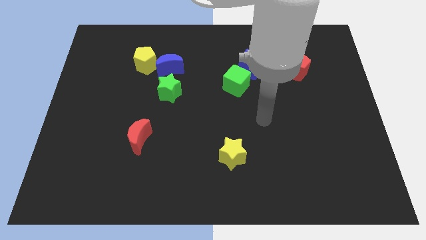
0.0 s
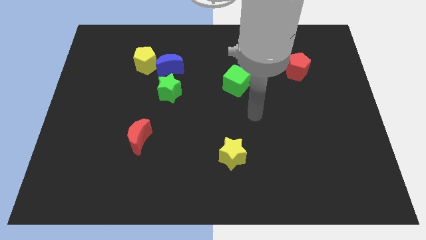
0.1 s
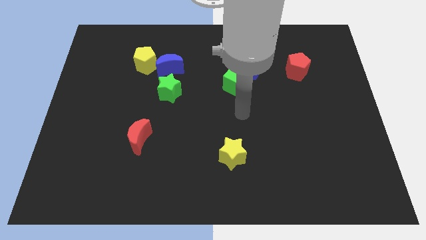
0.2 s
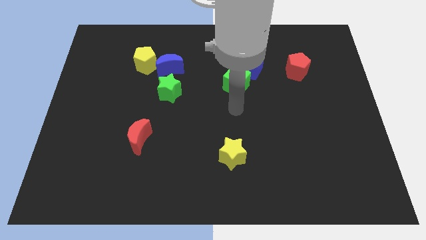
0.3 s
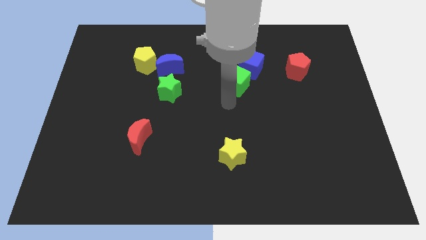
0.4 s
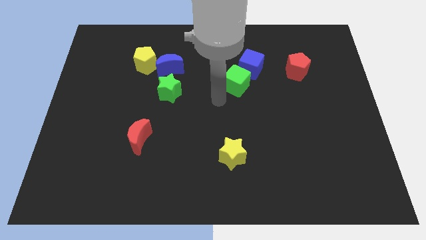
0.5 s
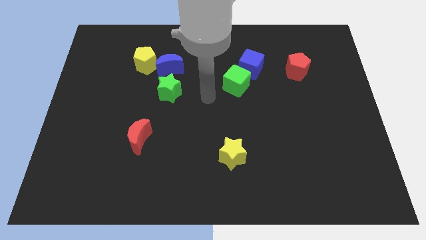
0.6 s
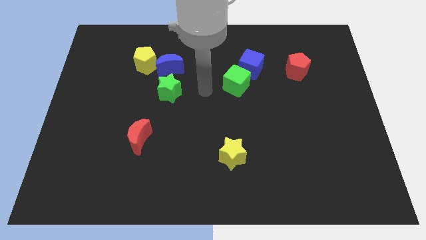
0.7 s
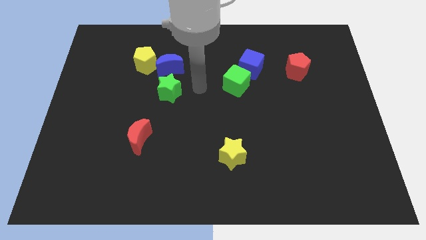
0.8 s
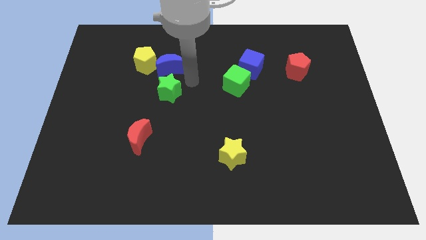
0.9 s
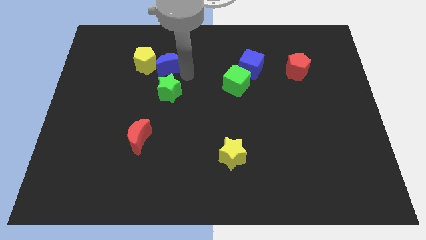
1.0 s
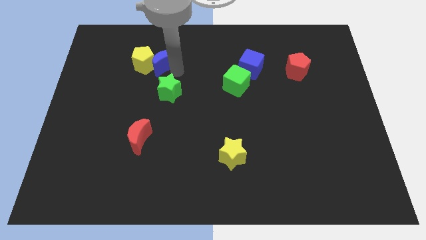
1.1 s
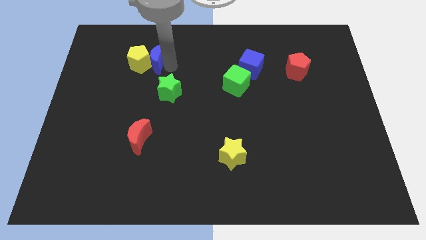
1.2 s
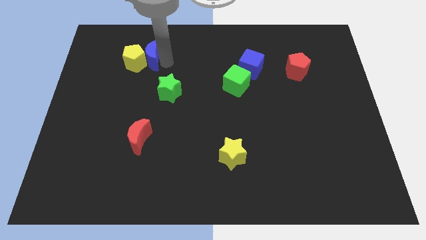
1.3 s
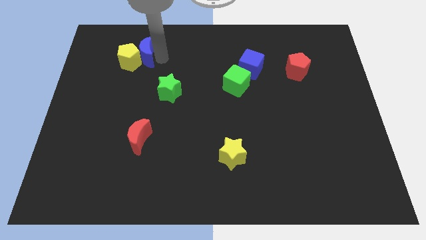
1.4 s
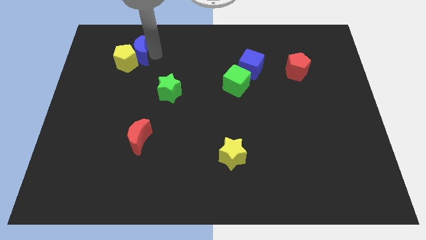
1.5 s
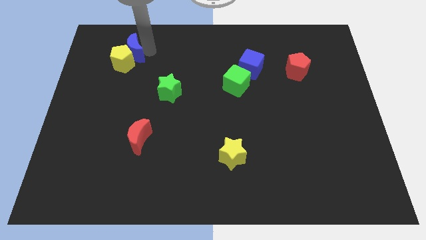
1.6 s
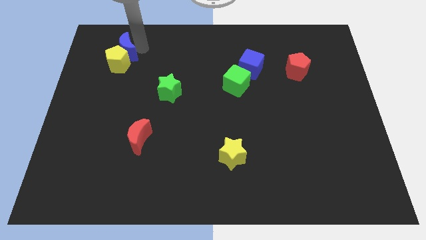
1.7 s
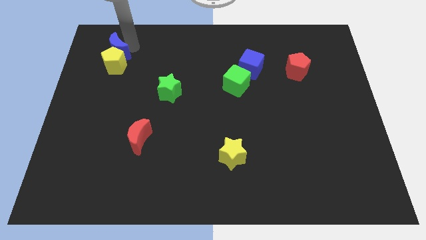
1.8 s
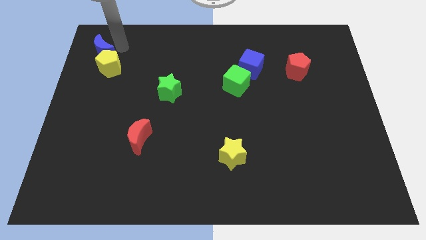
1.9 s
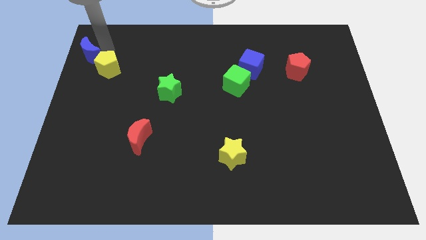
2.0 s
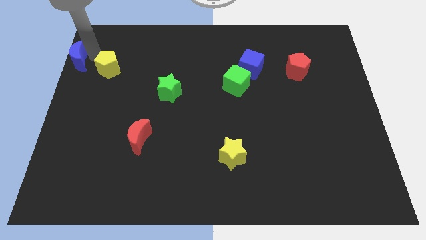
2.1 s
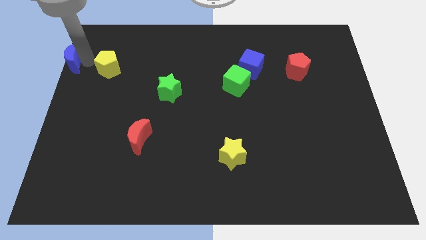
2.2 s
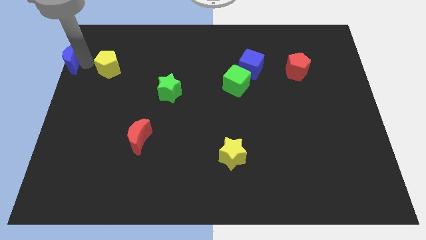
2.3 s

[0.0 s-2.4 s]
separate the yellow pentagon from the blue moon

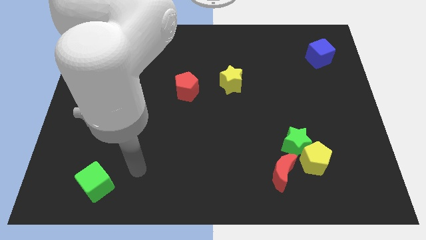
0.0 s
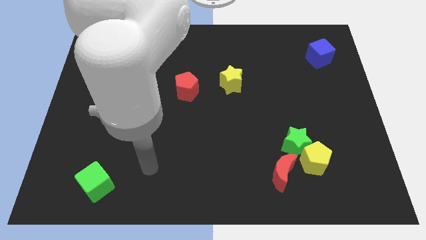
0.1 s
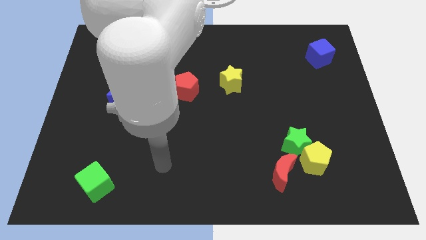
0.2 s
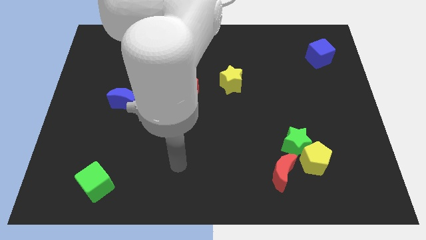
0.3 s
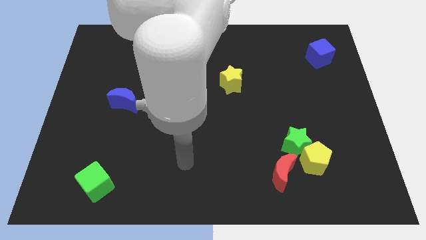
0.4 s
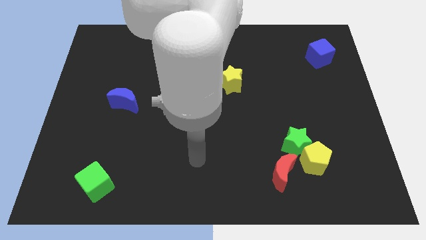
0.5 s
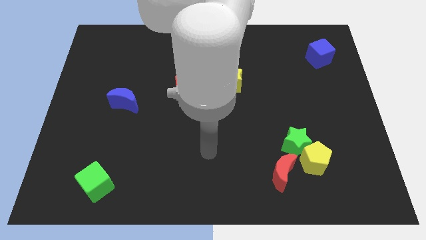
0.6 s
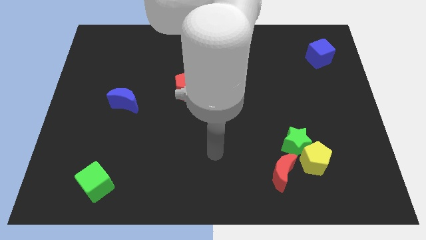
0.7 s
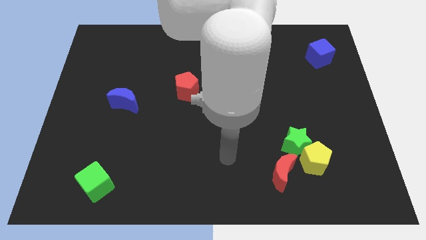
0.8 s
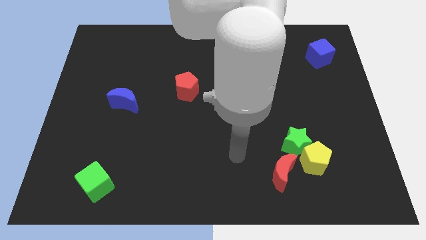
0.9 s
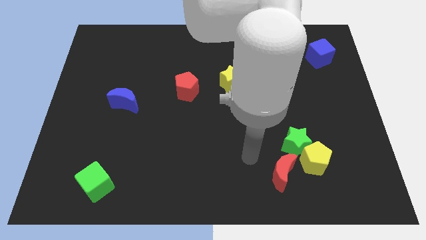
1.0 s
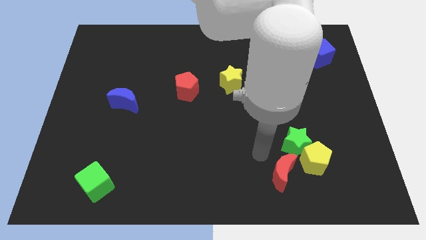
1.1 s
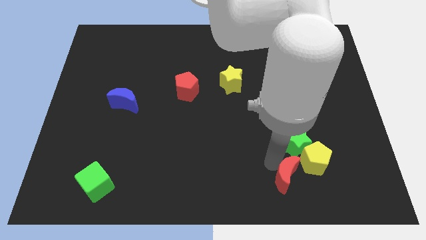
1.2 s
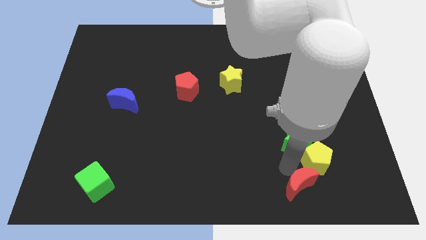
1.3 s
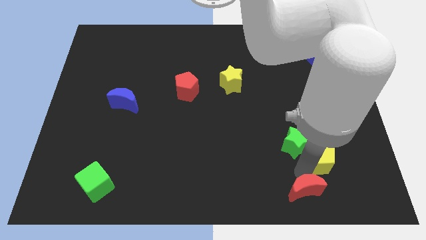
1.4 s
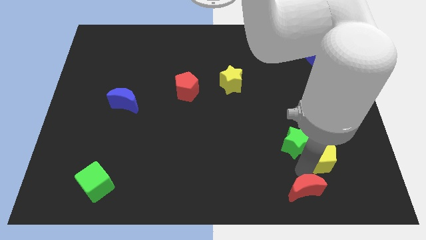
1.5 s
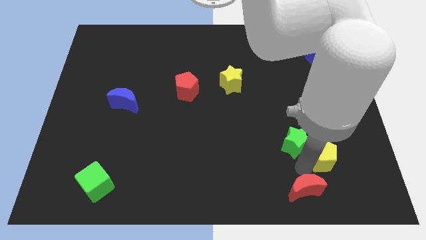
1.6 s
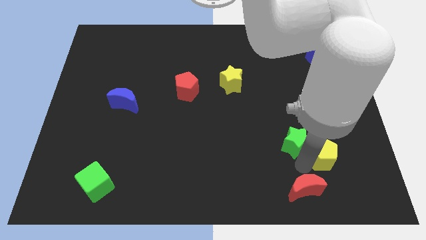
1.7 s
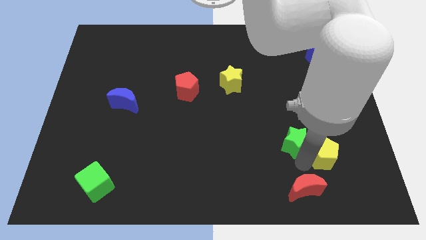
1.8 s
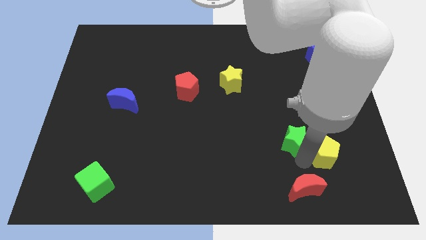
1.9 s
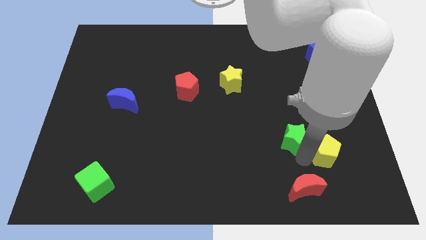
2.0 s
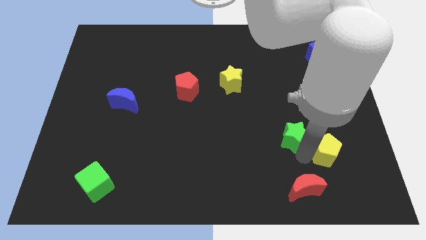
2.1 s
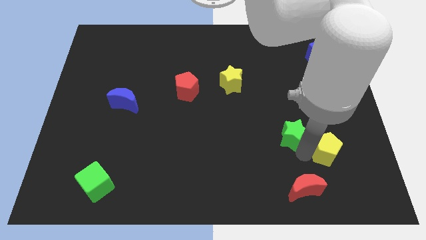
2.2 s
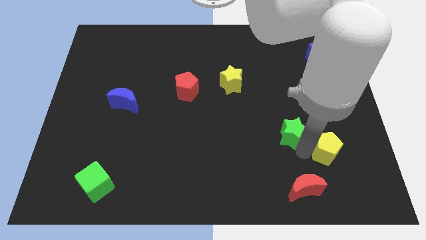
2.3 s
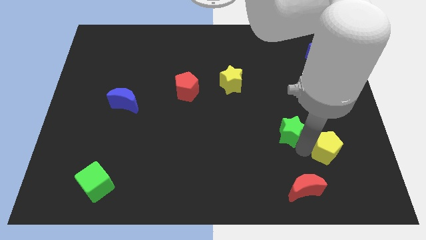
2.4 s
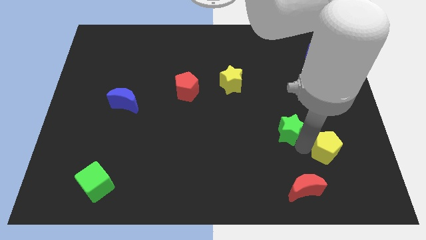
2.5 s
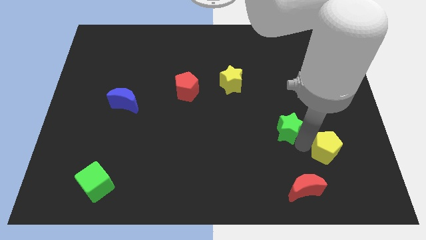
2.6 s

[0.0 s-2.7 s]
pull the green star apart from the yellow pentagon and red moon

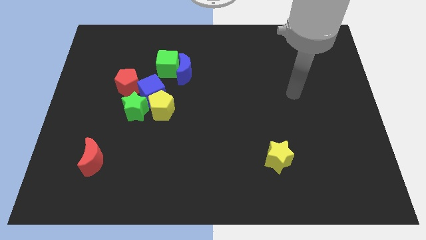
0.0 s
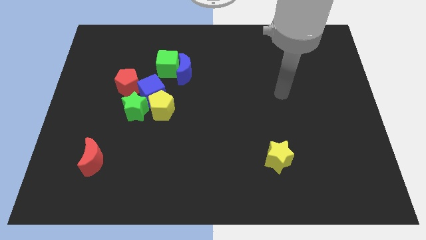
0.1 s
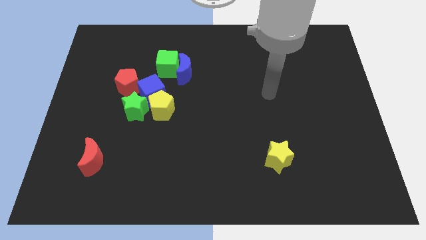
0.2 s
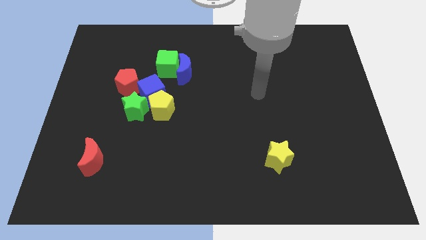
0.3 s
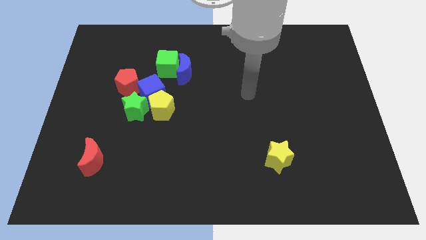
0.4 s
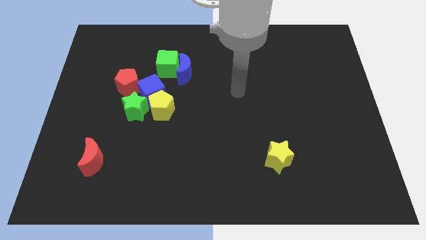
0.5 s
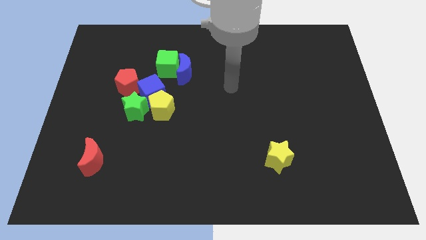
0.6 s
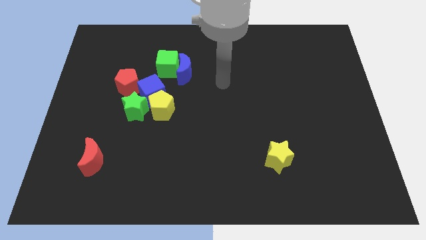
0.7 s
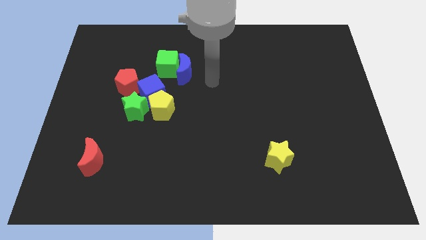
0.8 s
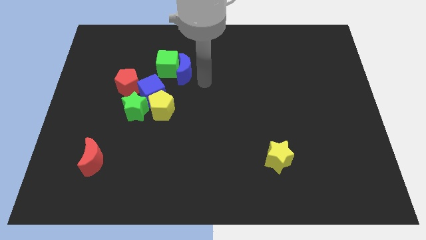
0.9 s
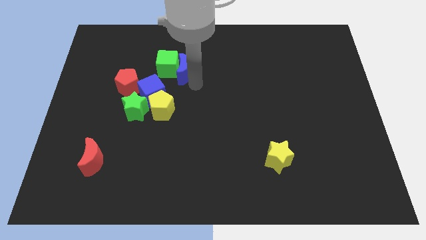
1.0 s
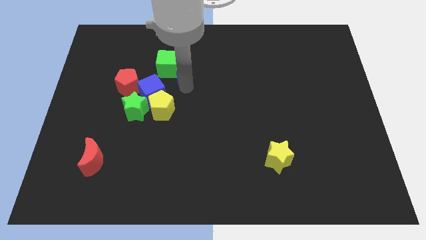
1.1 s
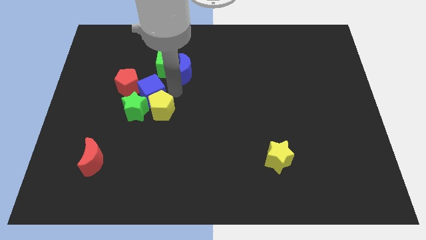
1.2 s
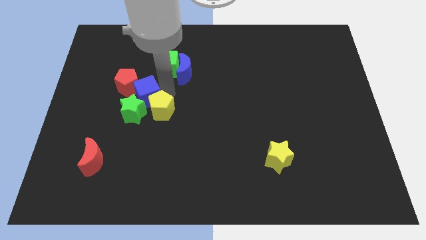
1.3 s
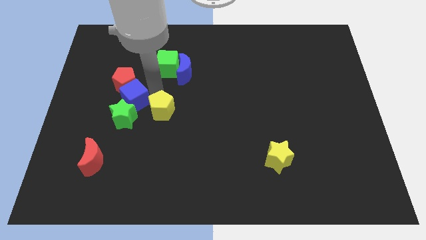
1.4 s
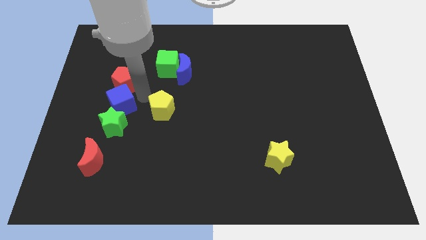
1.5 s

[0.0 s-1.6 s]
separate the yellow pentagon from the blue cube and green star

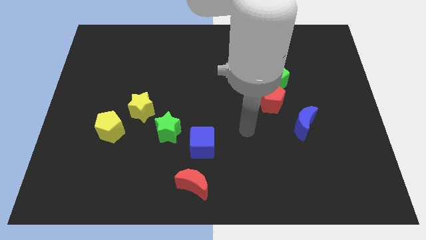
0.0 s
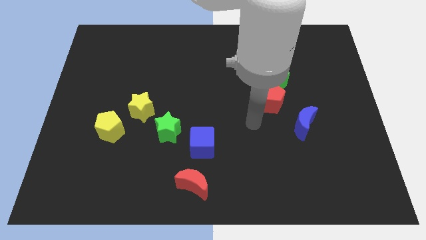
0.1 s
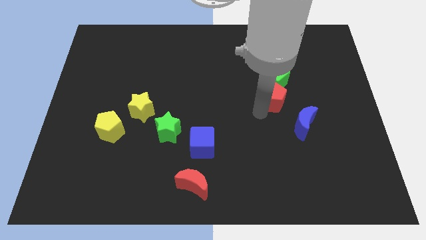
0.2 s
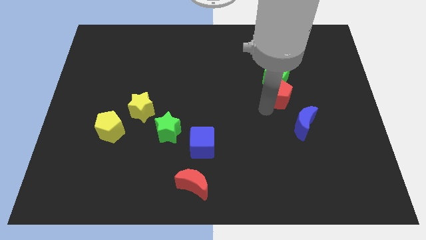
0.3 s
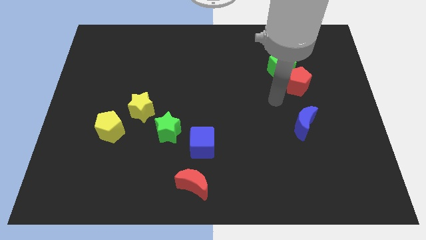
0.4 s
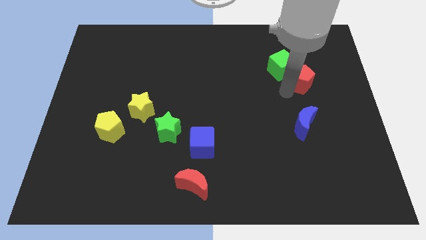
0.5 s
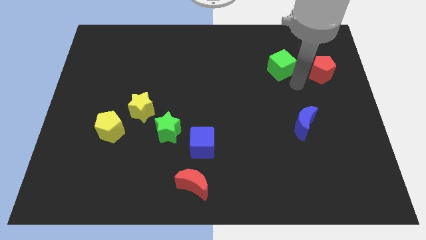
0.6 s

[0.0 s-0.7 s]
pull the green cube apart from the red pentagon

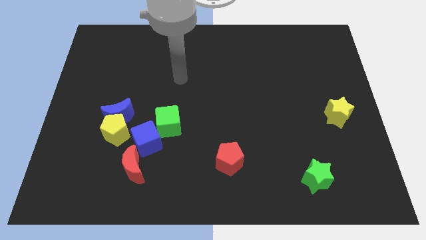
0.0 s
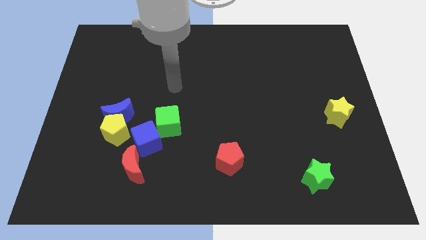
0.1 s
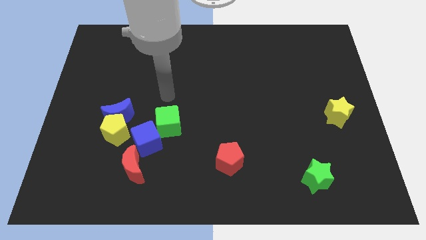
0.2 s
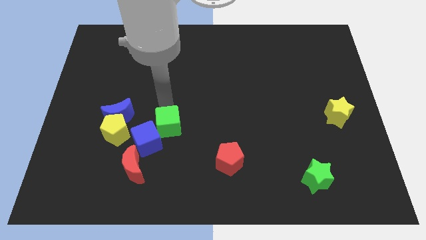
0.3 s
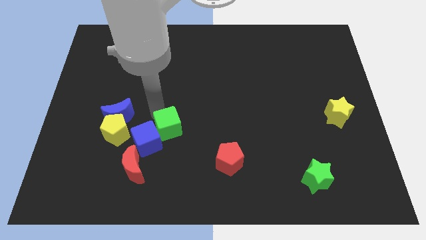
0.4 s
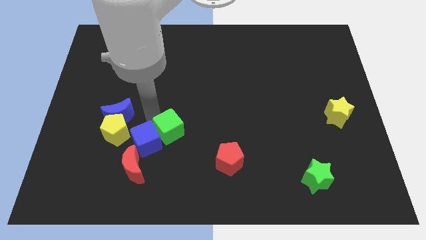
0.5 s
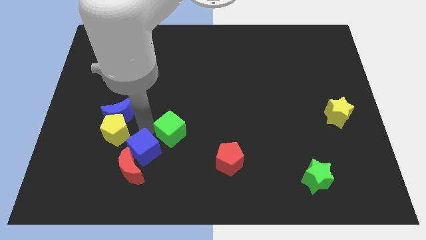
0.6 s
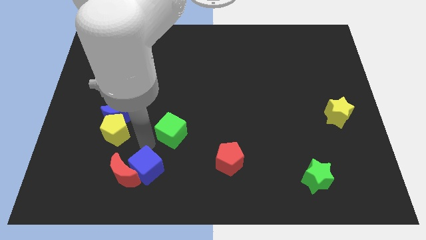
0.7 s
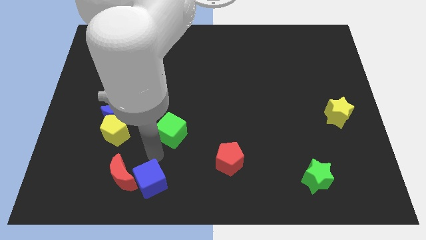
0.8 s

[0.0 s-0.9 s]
move the green cube away from the blue cube

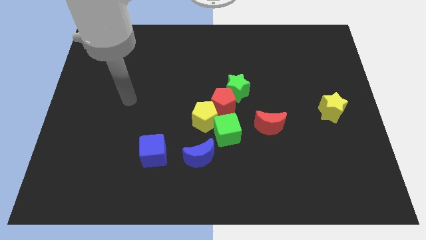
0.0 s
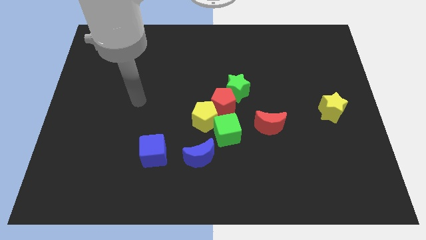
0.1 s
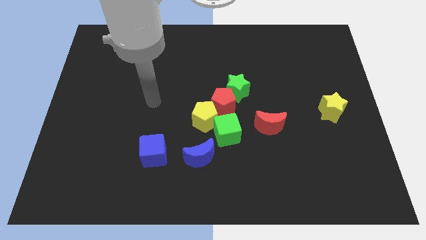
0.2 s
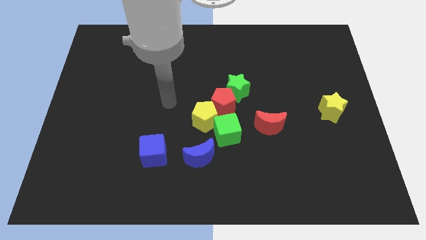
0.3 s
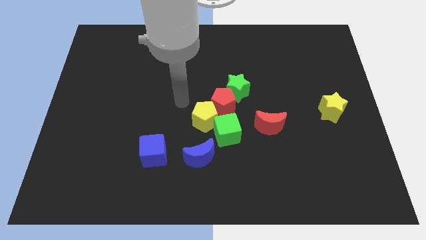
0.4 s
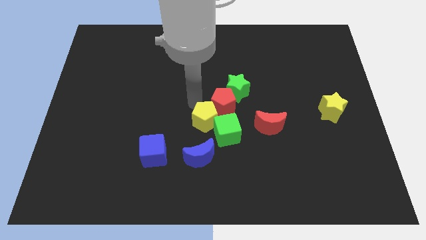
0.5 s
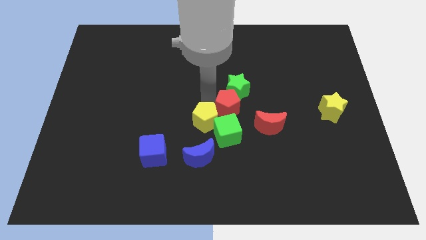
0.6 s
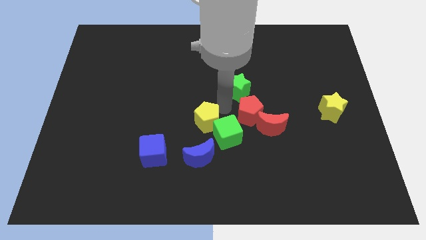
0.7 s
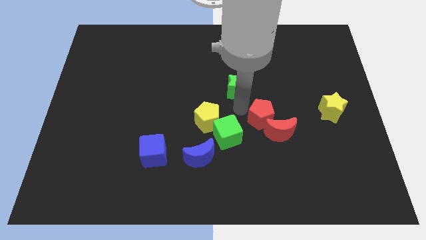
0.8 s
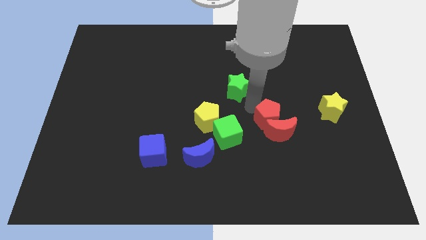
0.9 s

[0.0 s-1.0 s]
pull the green star apart from the red pentagon
